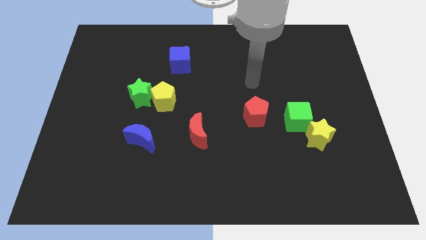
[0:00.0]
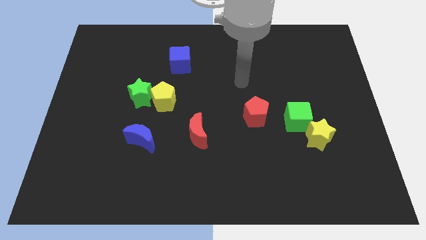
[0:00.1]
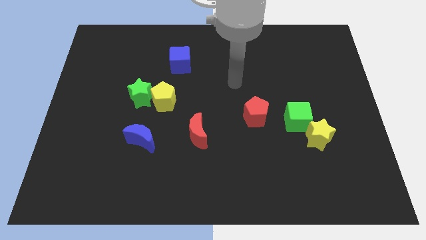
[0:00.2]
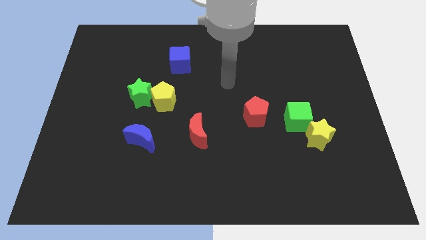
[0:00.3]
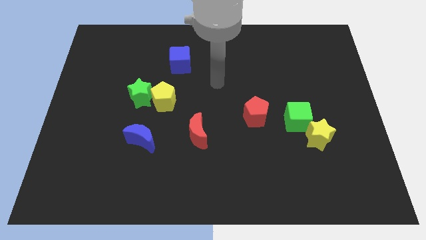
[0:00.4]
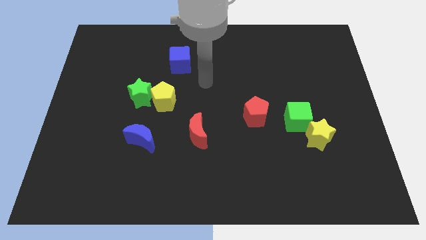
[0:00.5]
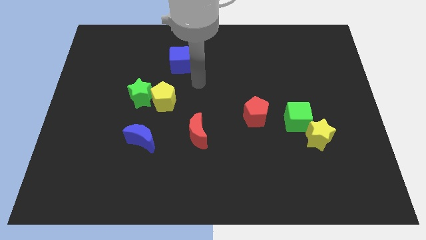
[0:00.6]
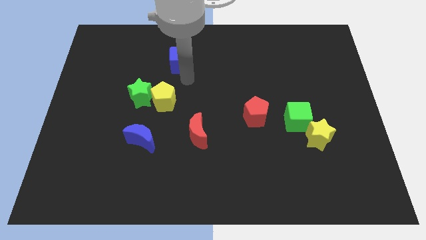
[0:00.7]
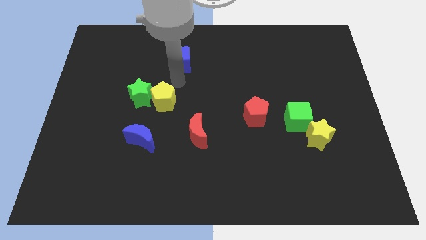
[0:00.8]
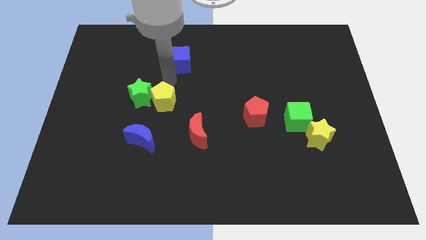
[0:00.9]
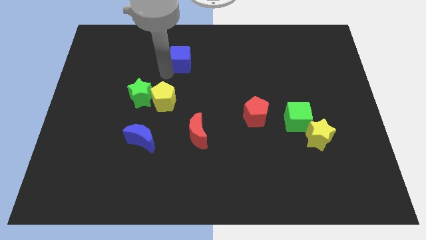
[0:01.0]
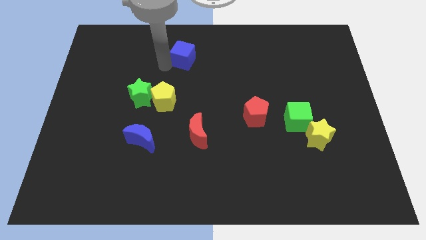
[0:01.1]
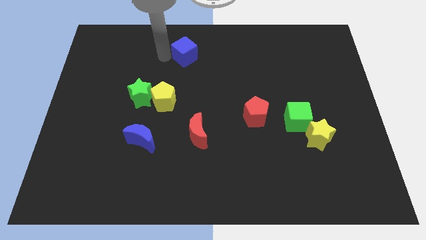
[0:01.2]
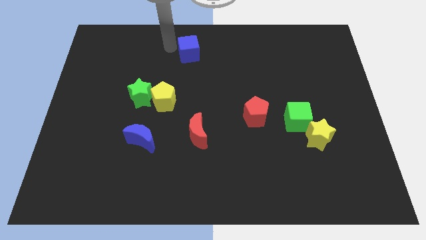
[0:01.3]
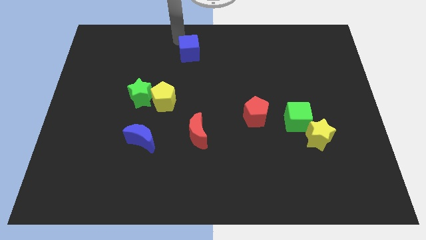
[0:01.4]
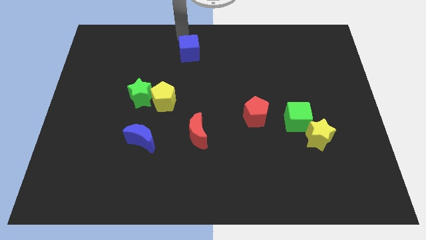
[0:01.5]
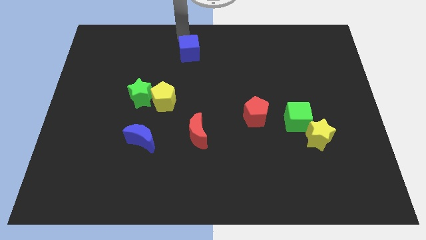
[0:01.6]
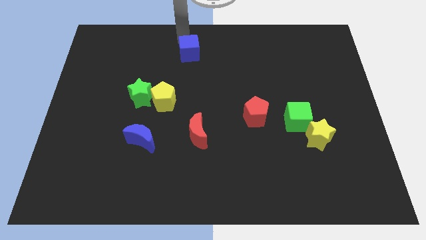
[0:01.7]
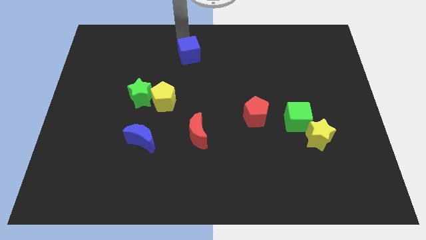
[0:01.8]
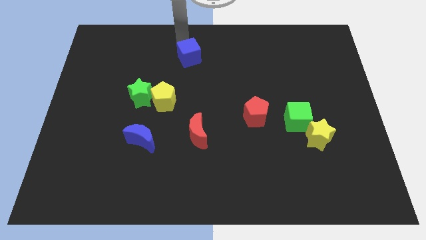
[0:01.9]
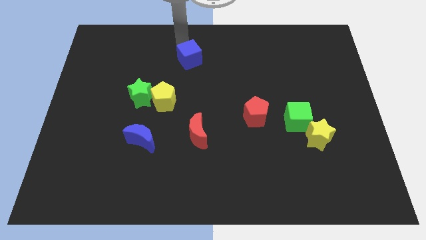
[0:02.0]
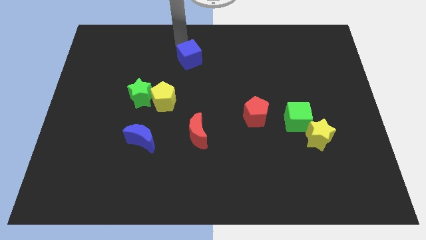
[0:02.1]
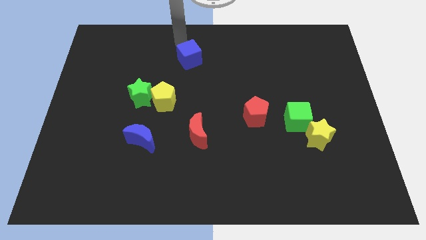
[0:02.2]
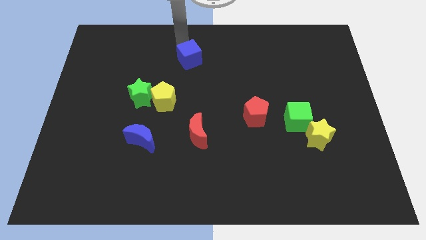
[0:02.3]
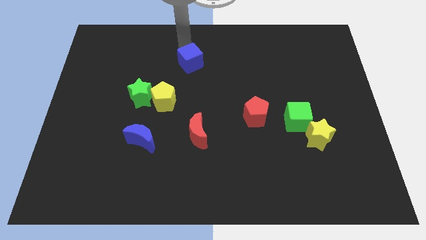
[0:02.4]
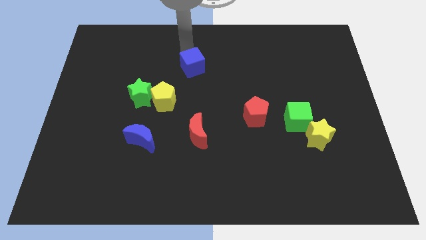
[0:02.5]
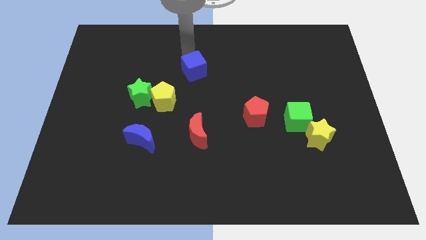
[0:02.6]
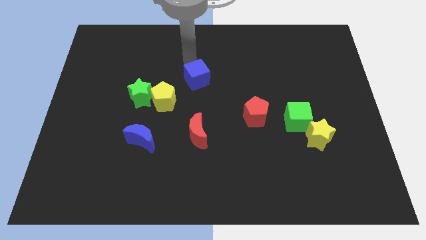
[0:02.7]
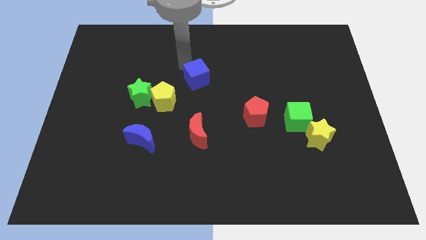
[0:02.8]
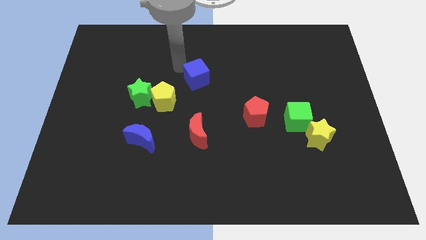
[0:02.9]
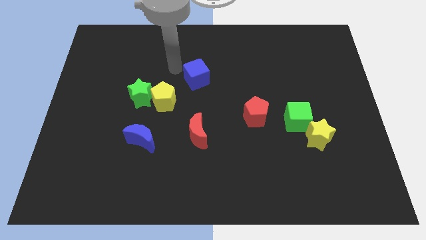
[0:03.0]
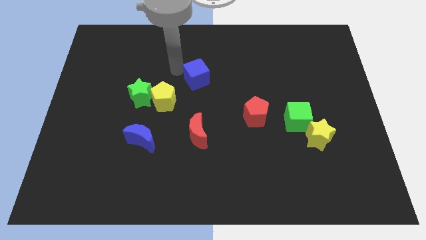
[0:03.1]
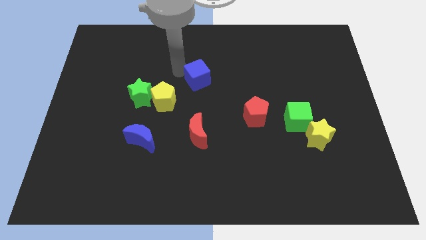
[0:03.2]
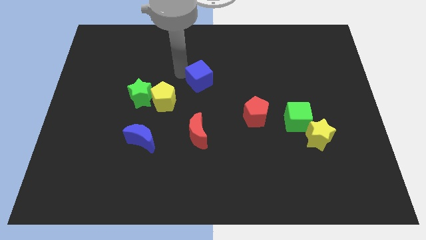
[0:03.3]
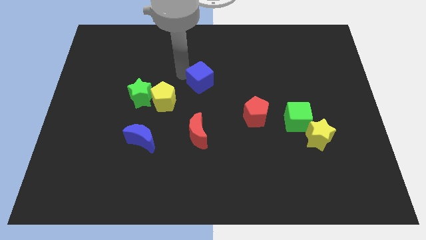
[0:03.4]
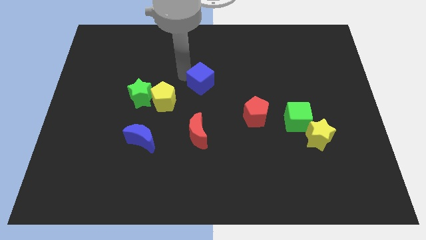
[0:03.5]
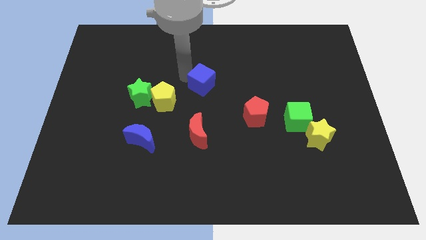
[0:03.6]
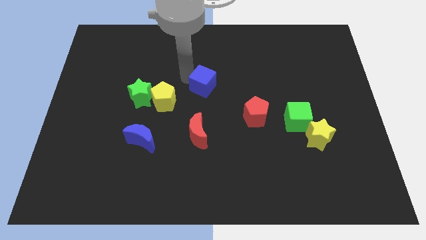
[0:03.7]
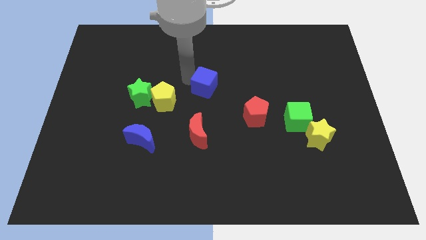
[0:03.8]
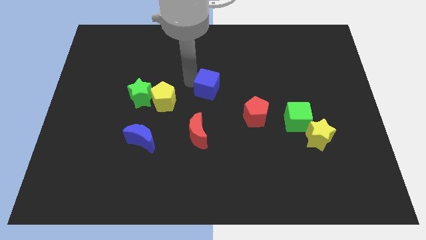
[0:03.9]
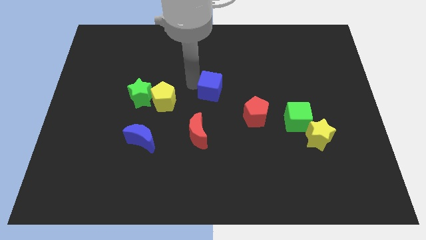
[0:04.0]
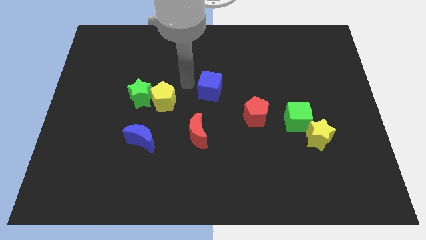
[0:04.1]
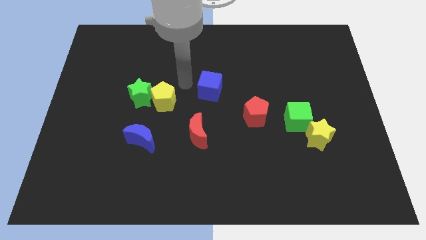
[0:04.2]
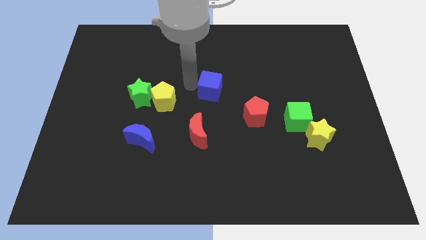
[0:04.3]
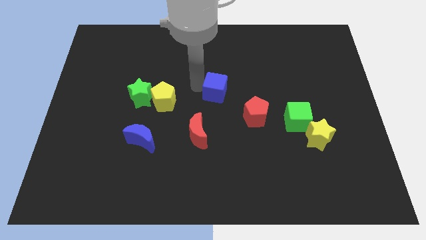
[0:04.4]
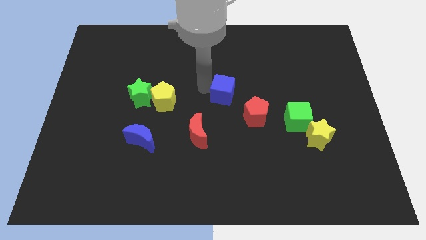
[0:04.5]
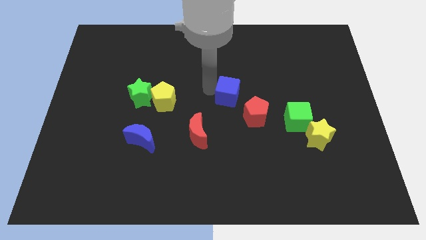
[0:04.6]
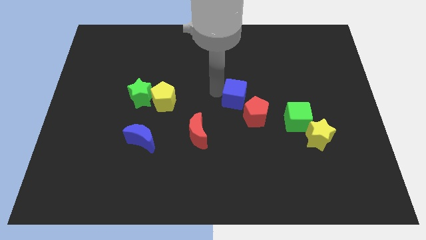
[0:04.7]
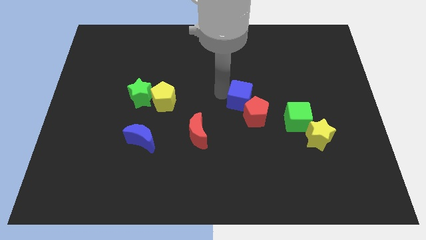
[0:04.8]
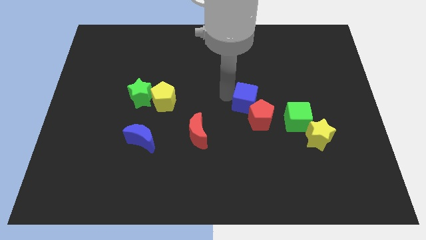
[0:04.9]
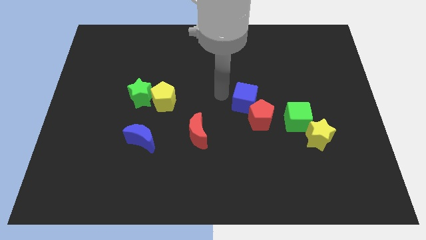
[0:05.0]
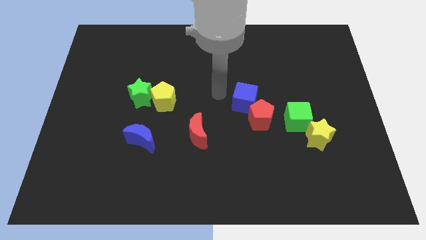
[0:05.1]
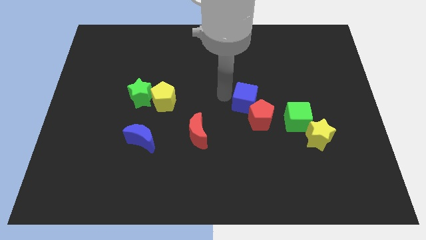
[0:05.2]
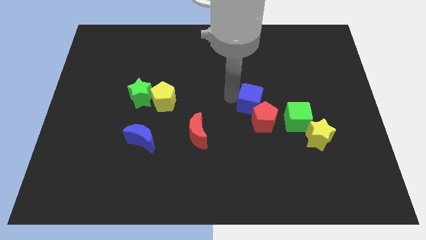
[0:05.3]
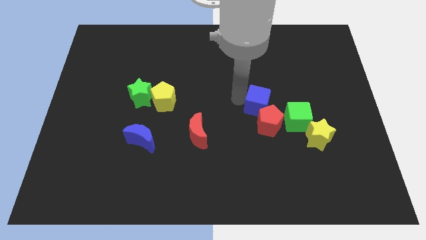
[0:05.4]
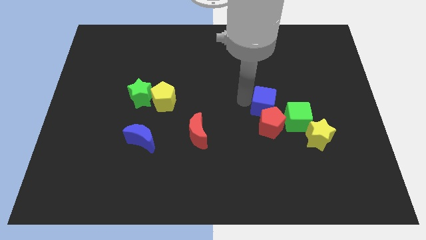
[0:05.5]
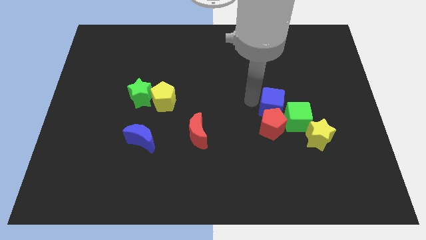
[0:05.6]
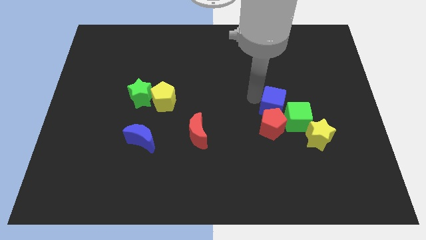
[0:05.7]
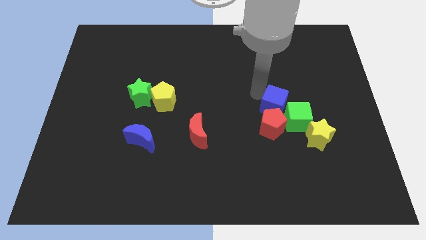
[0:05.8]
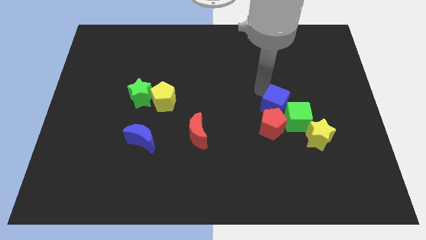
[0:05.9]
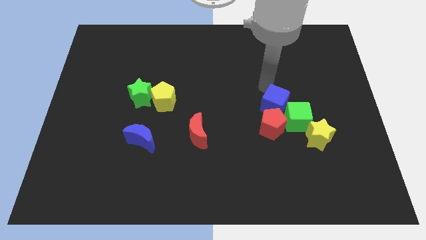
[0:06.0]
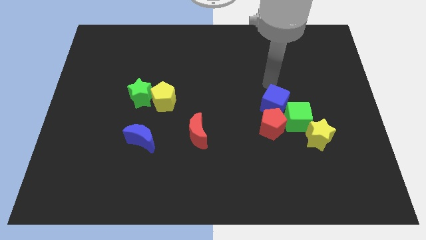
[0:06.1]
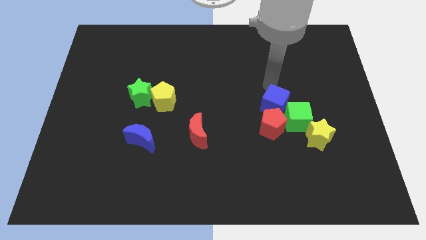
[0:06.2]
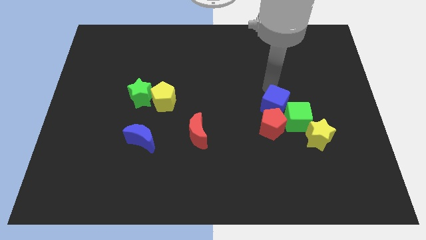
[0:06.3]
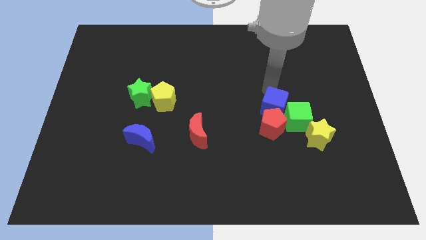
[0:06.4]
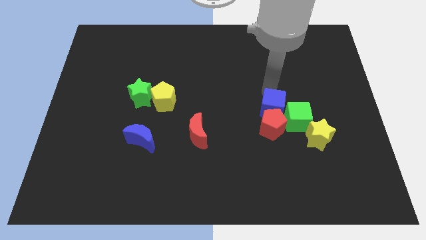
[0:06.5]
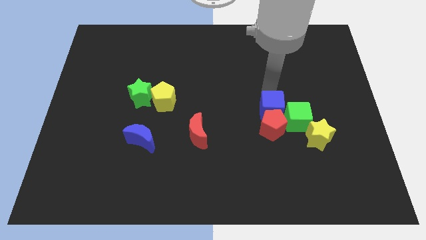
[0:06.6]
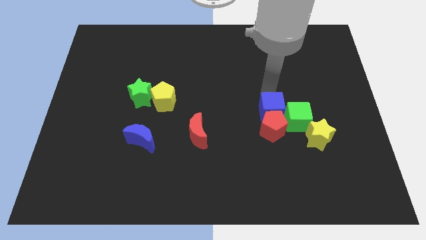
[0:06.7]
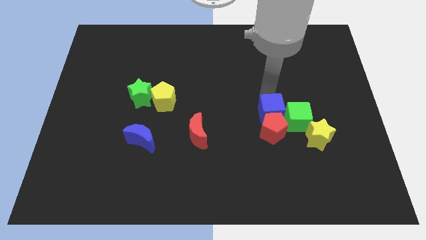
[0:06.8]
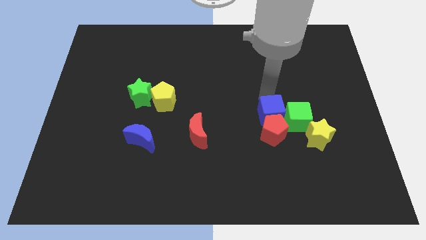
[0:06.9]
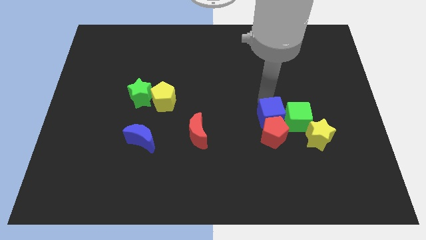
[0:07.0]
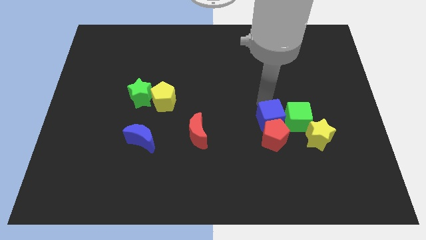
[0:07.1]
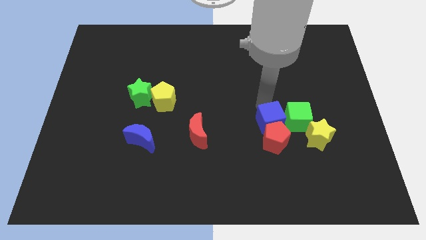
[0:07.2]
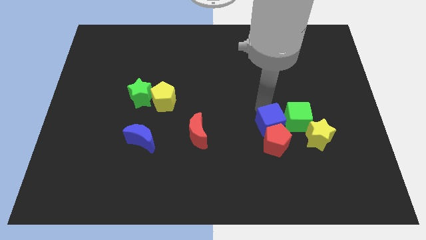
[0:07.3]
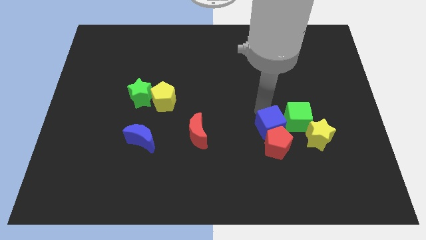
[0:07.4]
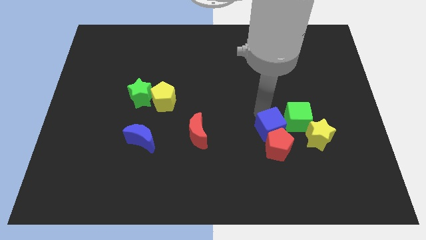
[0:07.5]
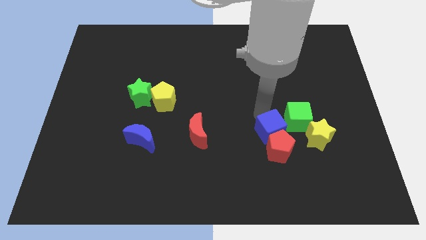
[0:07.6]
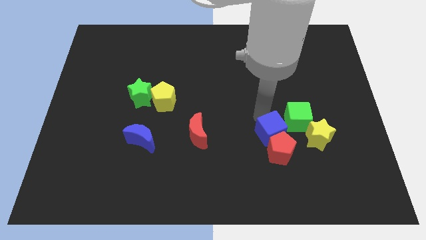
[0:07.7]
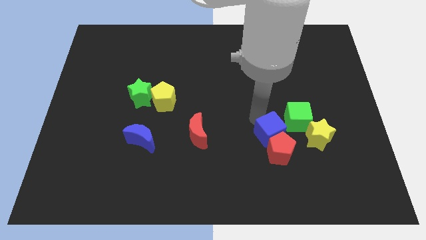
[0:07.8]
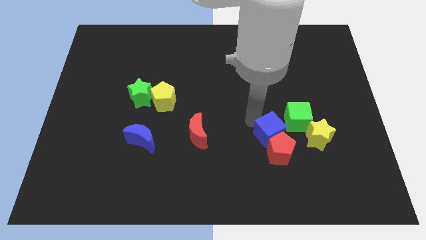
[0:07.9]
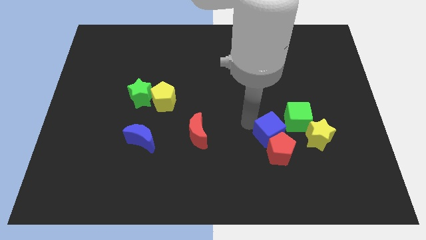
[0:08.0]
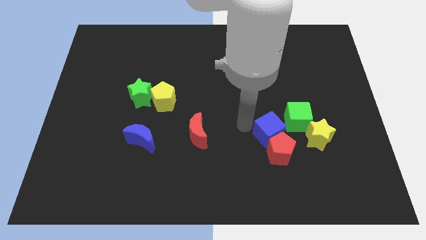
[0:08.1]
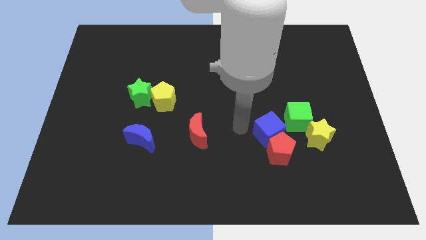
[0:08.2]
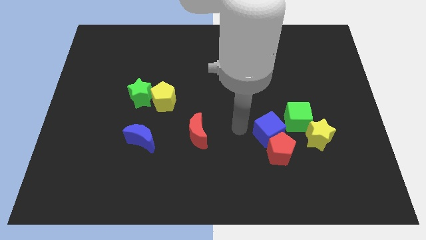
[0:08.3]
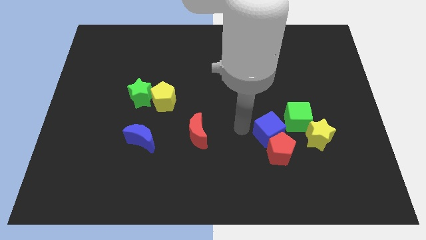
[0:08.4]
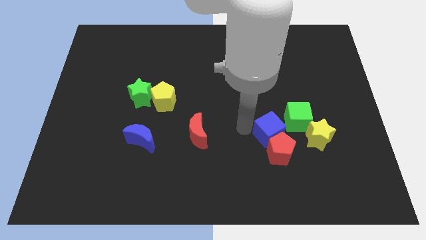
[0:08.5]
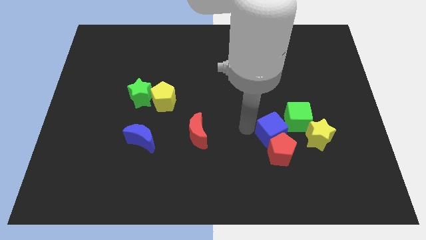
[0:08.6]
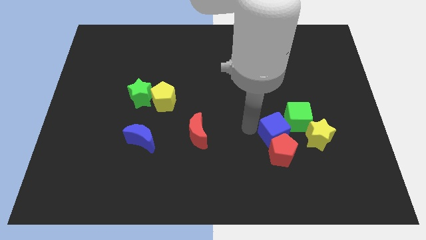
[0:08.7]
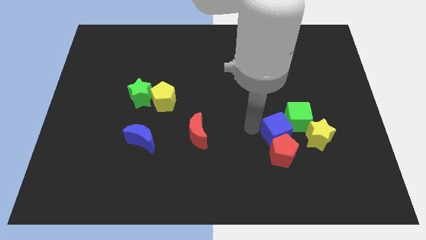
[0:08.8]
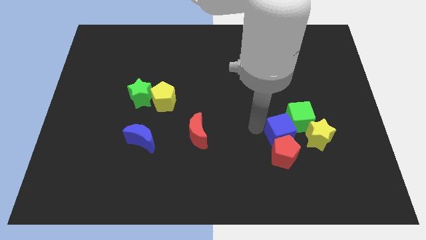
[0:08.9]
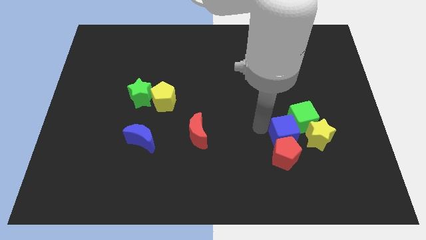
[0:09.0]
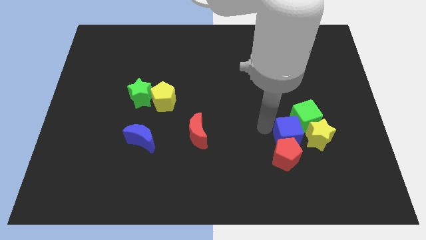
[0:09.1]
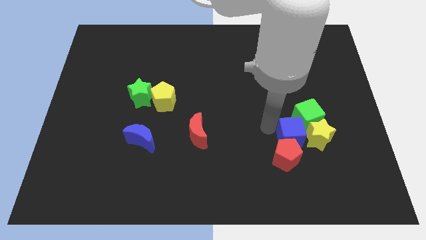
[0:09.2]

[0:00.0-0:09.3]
move the blue cube to the yellow star
